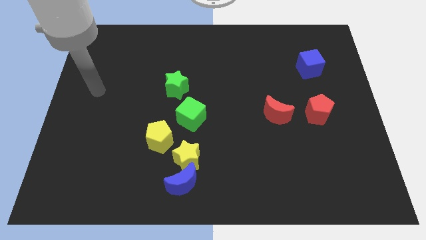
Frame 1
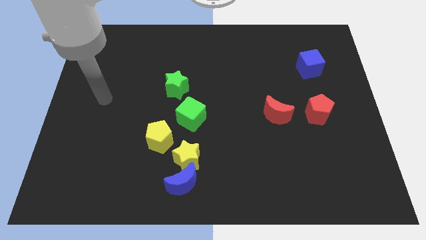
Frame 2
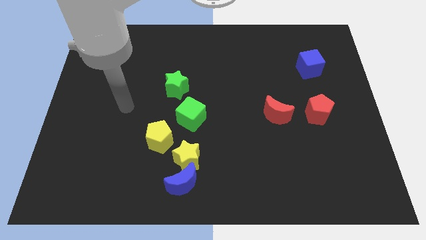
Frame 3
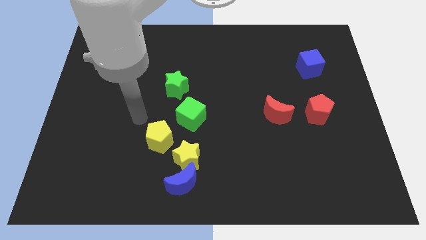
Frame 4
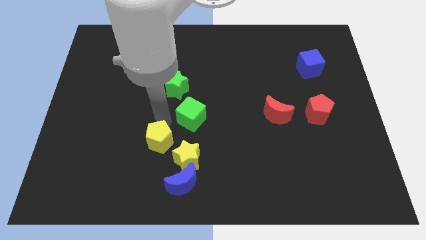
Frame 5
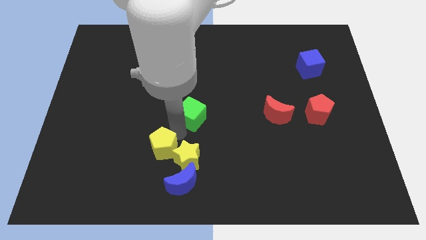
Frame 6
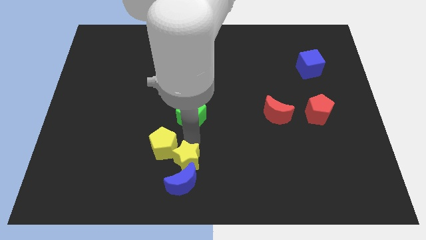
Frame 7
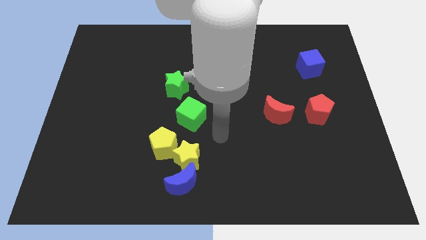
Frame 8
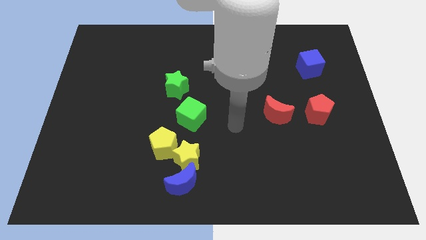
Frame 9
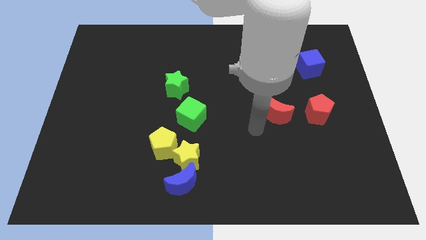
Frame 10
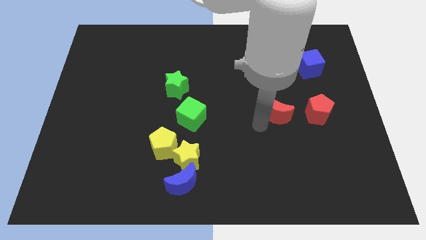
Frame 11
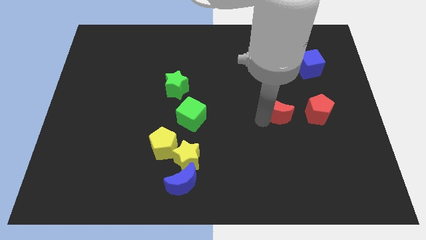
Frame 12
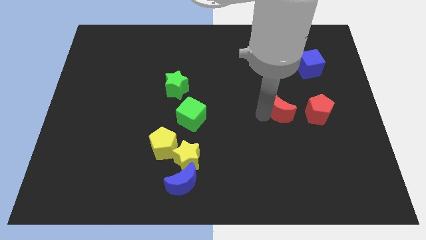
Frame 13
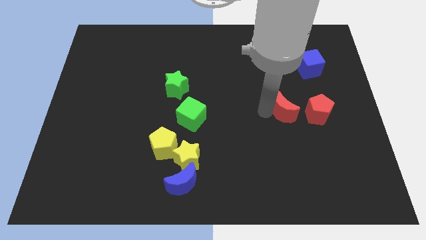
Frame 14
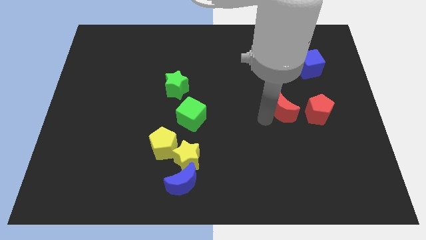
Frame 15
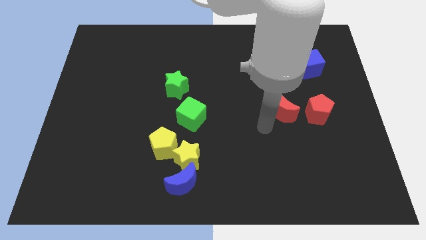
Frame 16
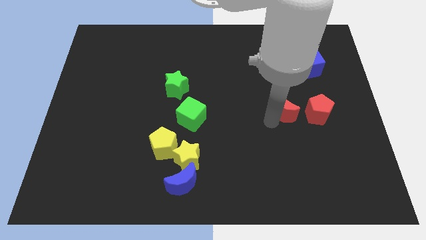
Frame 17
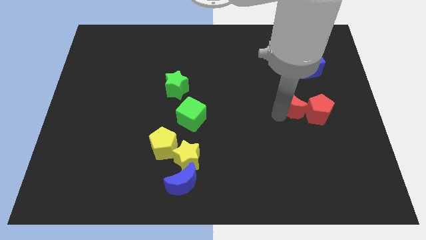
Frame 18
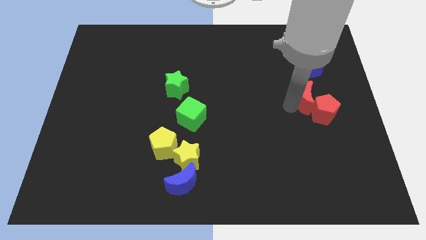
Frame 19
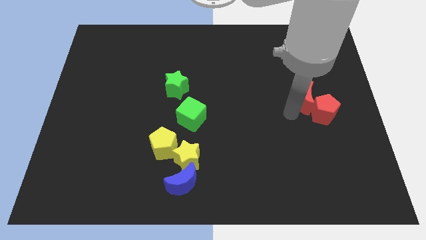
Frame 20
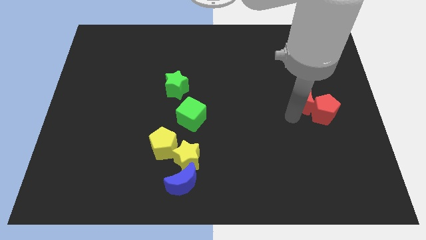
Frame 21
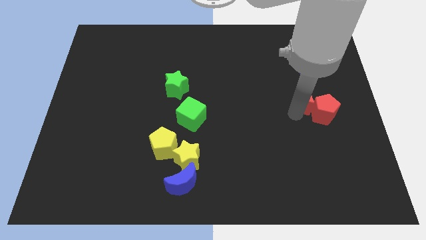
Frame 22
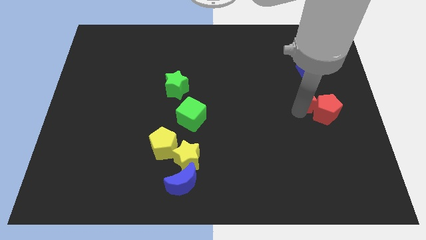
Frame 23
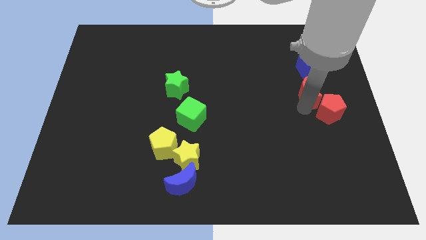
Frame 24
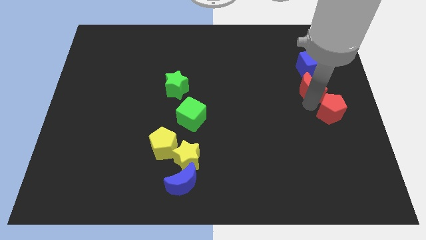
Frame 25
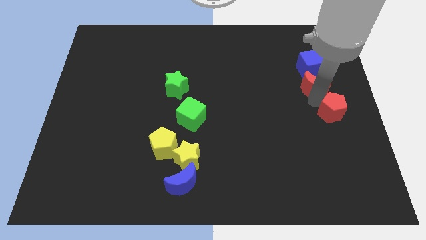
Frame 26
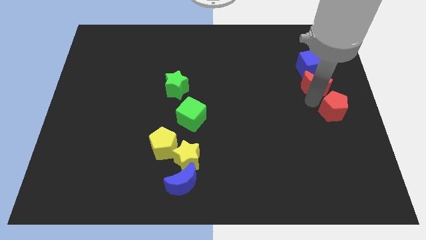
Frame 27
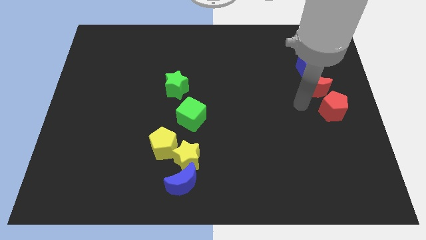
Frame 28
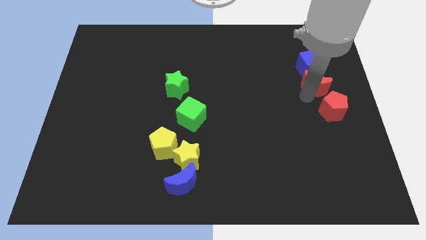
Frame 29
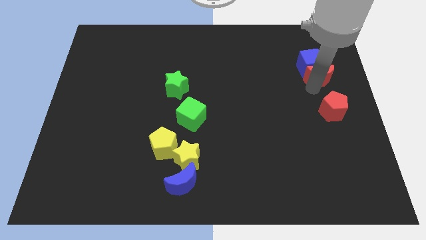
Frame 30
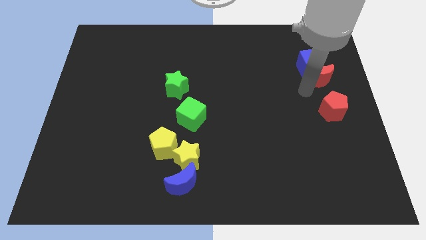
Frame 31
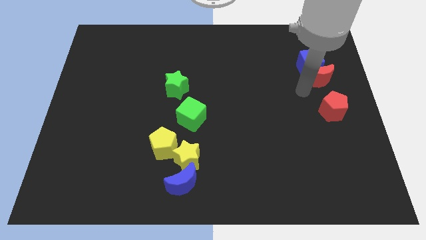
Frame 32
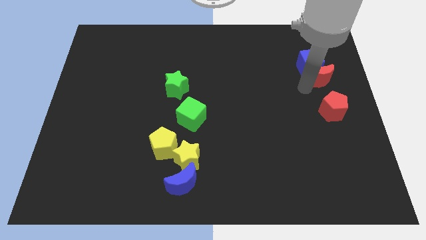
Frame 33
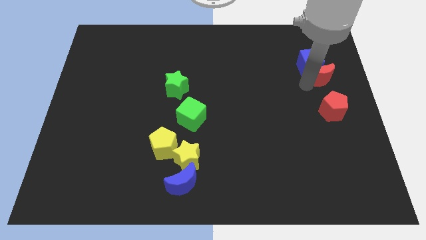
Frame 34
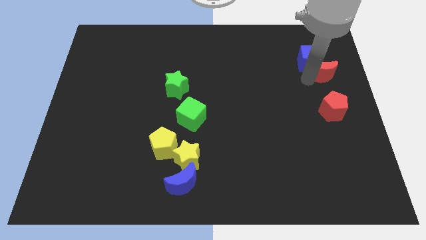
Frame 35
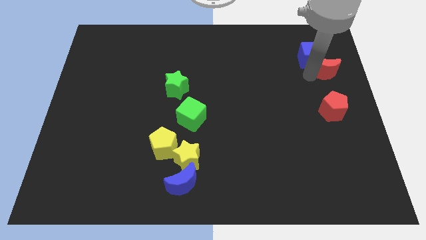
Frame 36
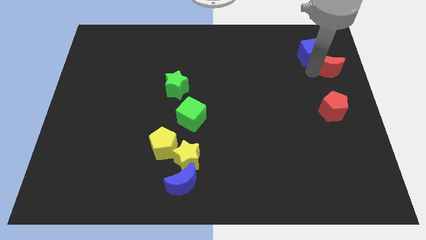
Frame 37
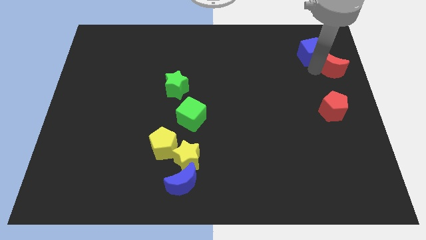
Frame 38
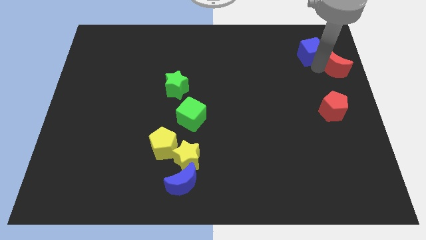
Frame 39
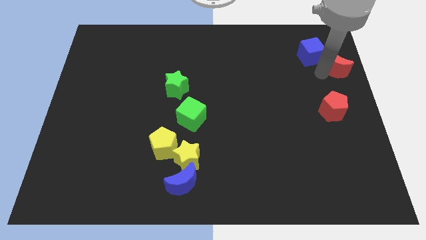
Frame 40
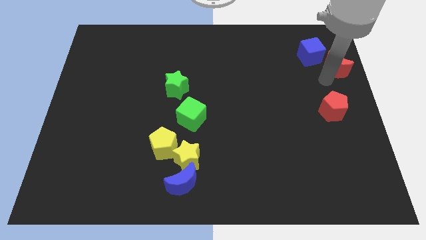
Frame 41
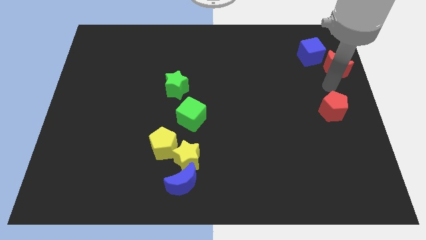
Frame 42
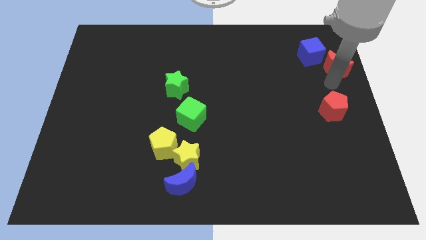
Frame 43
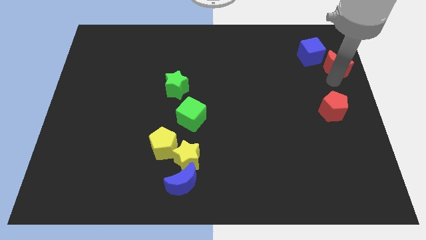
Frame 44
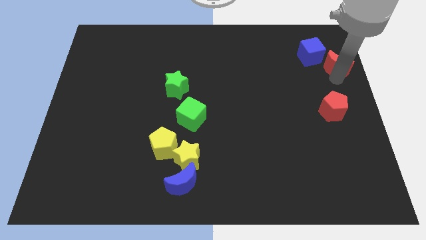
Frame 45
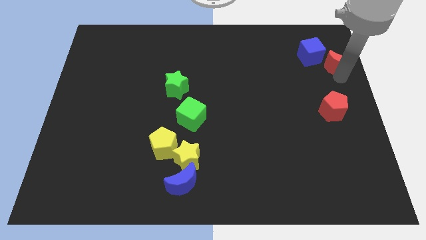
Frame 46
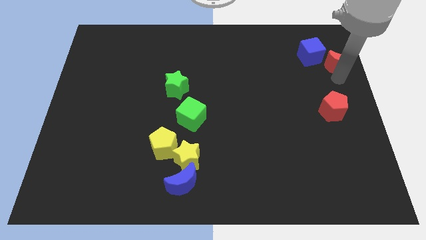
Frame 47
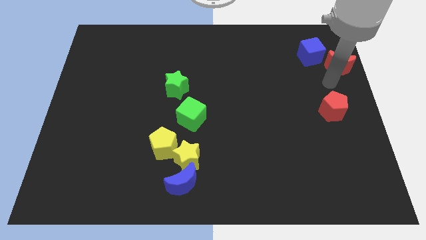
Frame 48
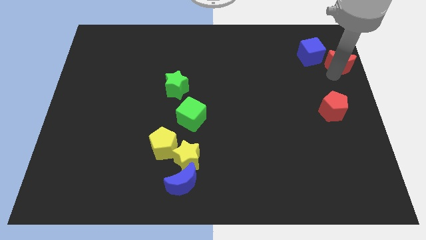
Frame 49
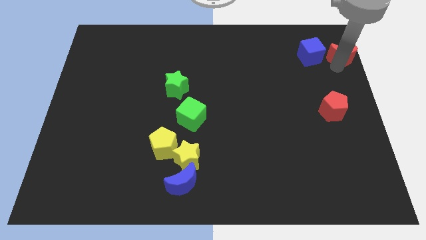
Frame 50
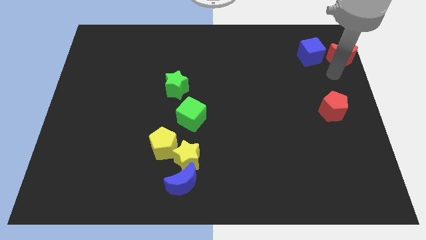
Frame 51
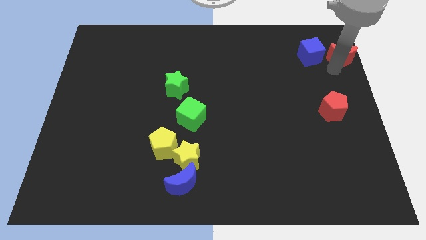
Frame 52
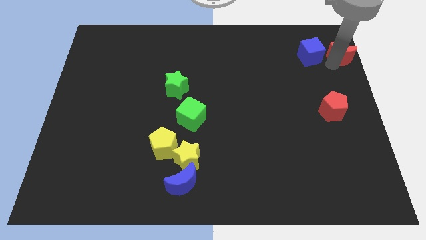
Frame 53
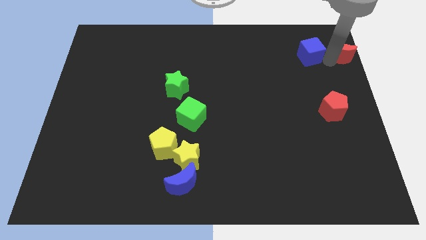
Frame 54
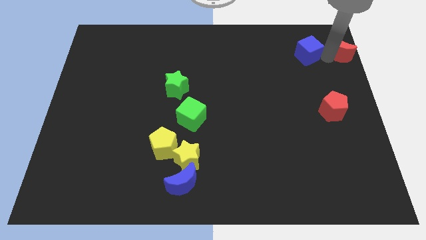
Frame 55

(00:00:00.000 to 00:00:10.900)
push the red moon to the top right

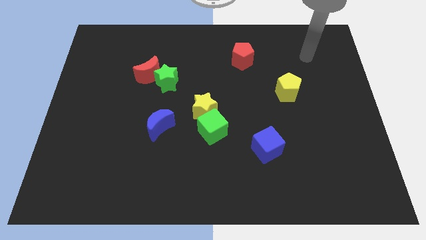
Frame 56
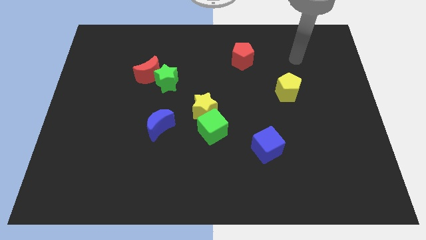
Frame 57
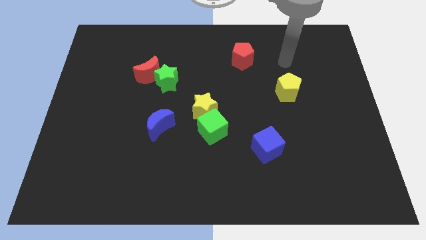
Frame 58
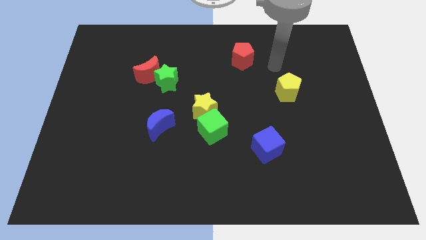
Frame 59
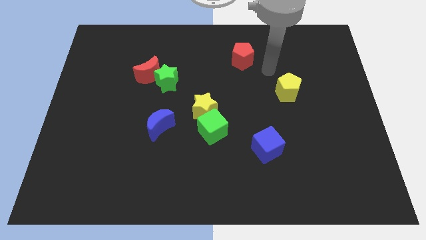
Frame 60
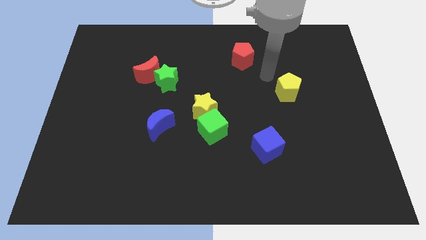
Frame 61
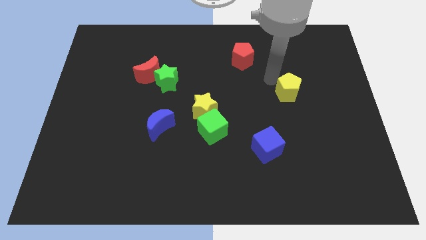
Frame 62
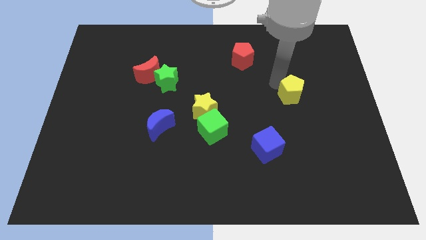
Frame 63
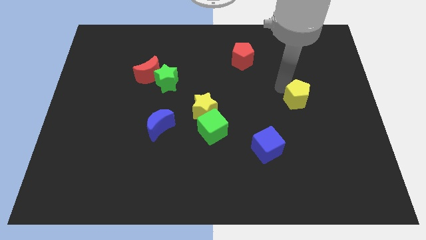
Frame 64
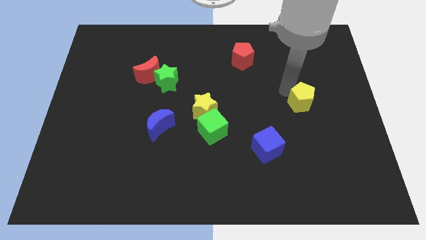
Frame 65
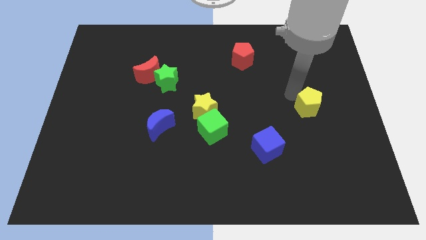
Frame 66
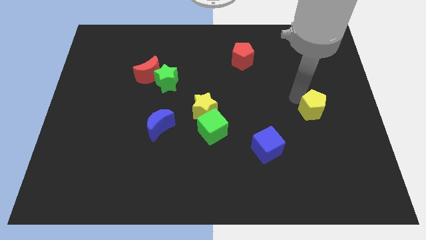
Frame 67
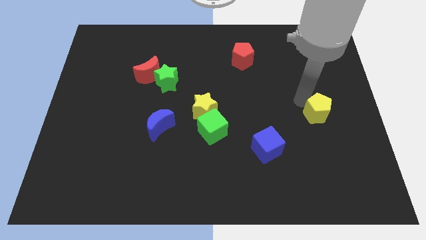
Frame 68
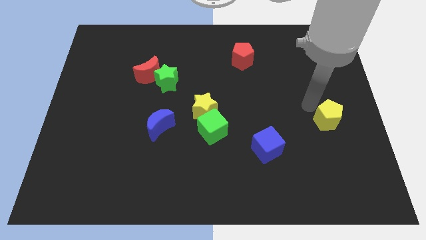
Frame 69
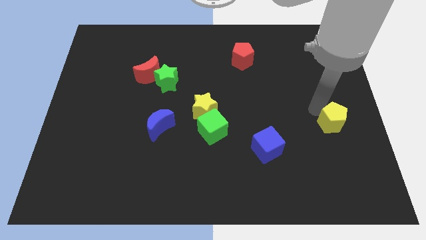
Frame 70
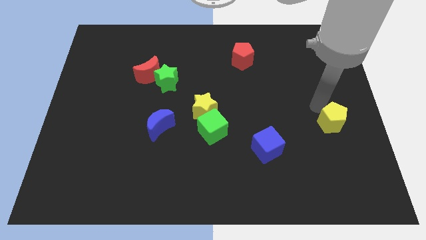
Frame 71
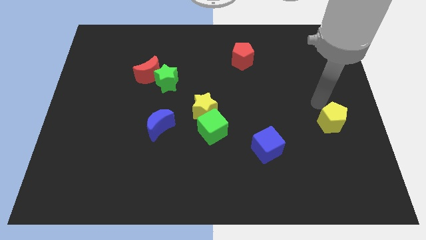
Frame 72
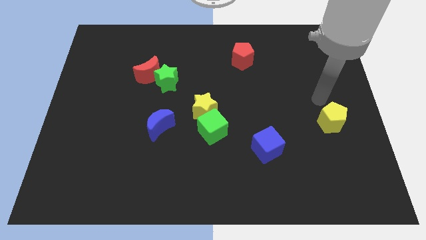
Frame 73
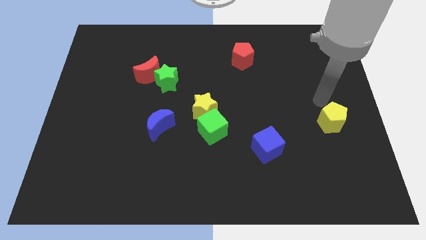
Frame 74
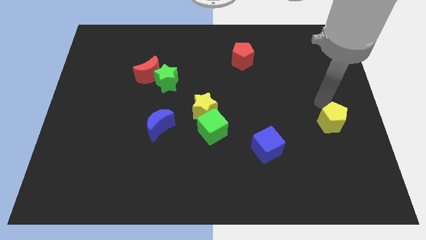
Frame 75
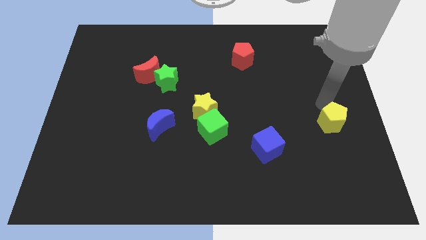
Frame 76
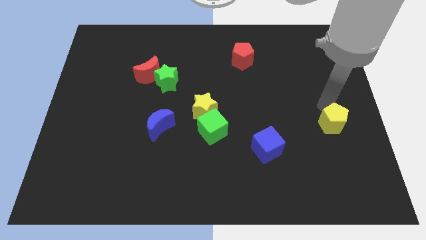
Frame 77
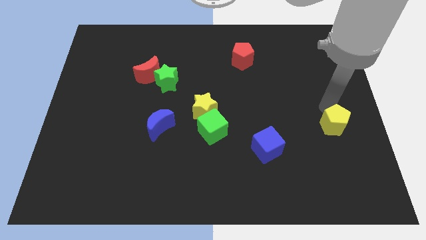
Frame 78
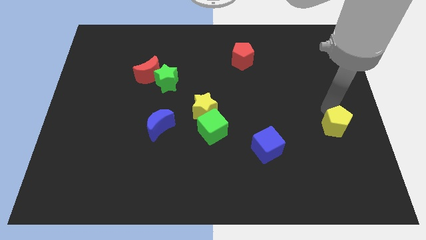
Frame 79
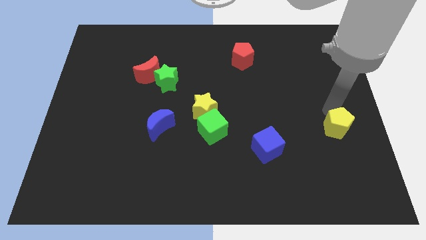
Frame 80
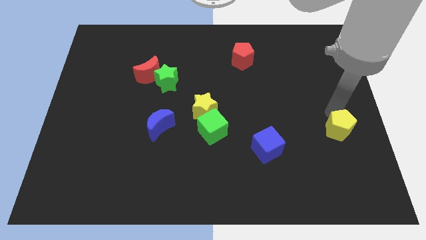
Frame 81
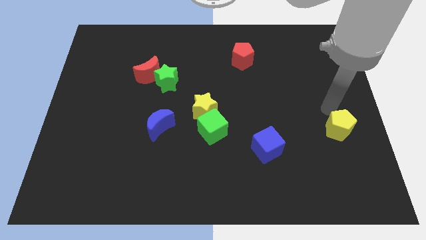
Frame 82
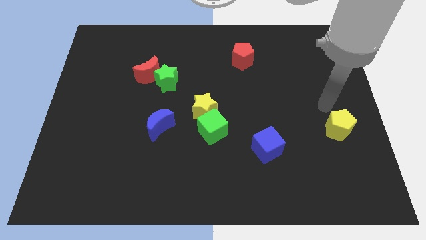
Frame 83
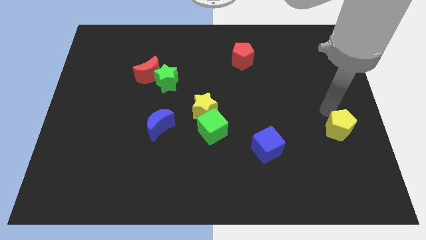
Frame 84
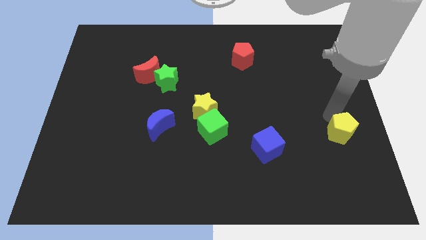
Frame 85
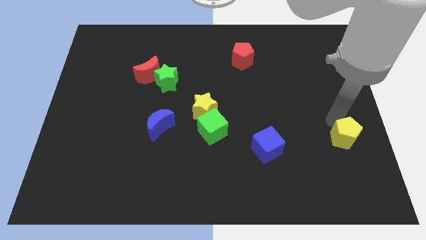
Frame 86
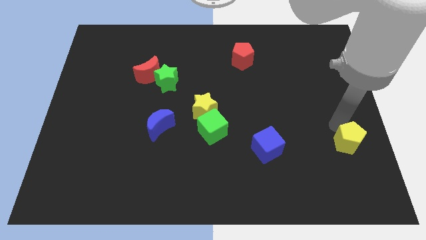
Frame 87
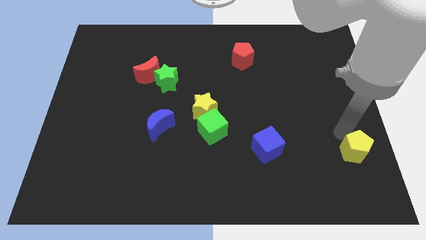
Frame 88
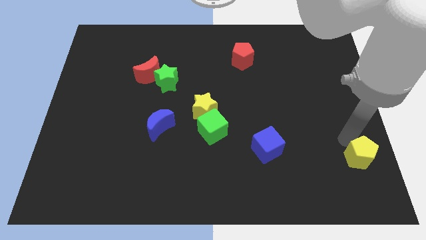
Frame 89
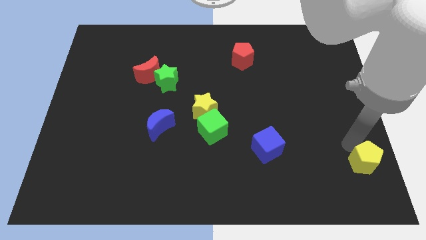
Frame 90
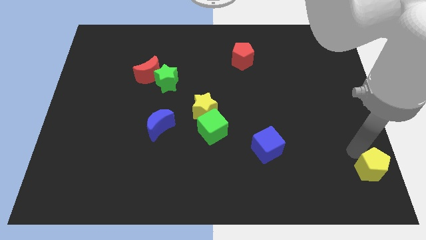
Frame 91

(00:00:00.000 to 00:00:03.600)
move the yellow pentagon to the bottom right of the board
